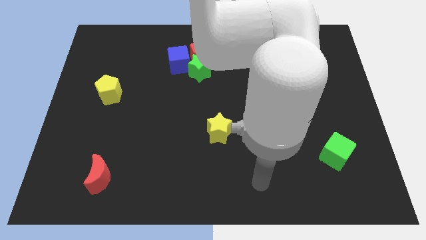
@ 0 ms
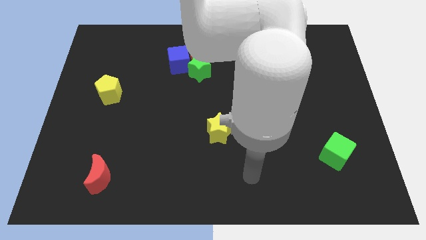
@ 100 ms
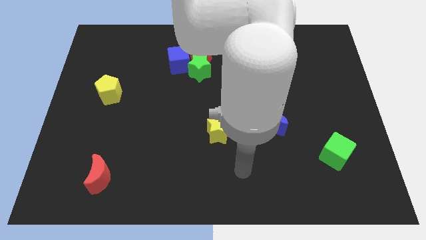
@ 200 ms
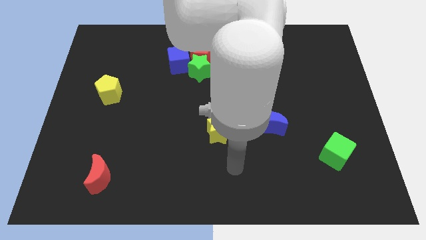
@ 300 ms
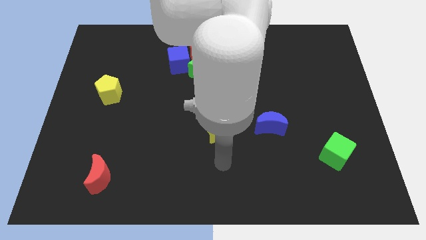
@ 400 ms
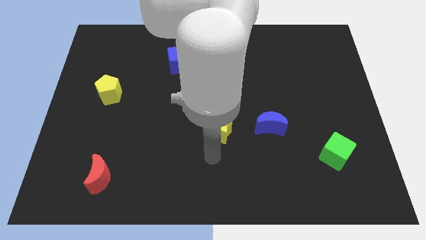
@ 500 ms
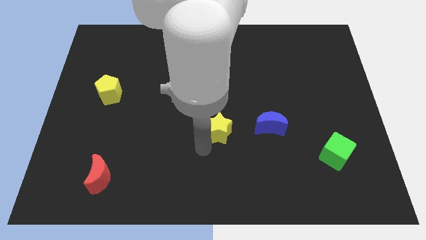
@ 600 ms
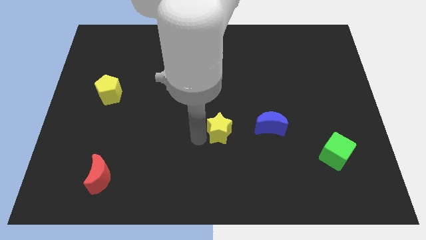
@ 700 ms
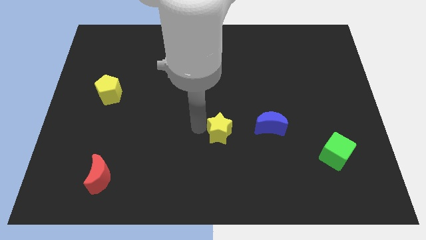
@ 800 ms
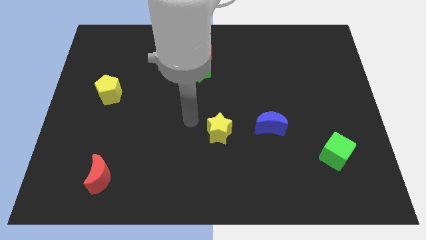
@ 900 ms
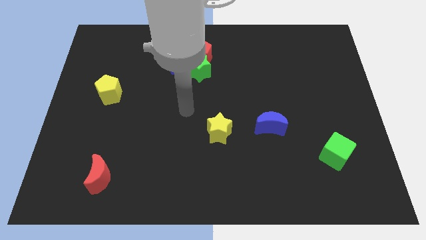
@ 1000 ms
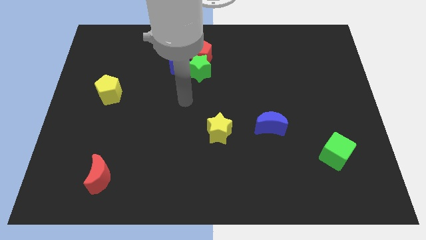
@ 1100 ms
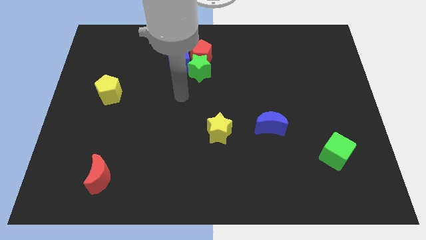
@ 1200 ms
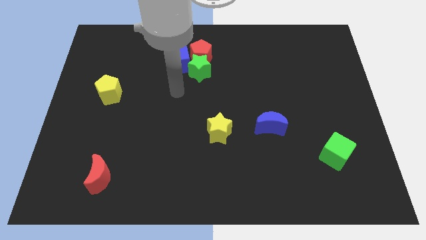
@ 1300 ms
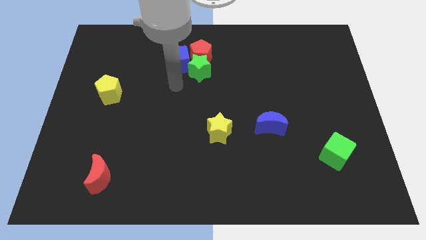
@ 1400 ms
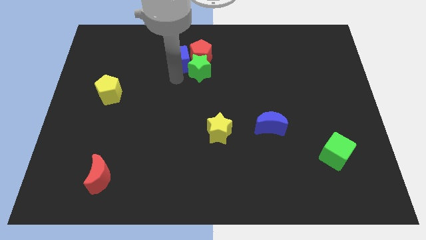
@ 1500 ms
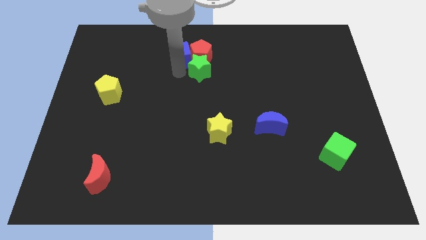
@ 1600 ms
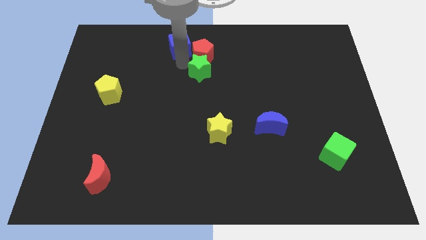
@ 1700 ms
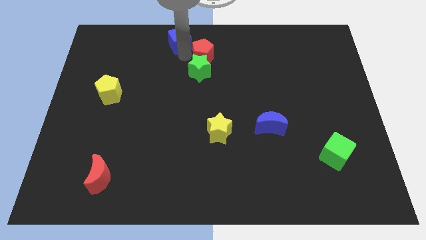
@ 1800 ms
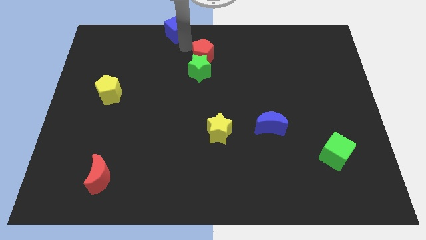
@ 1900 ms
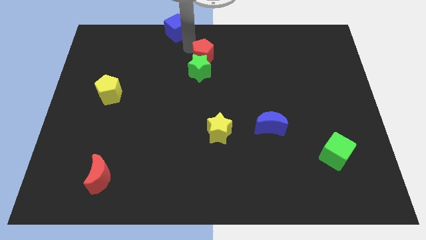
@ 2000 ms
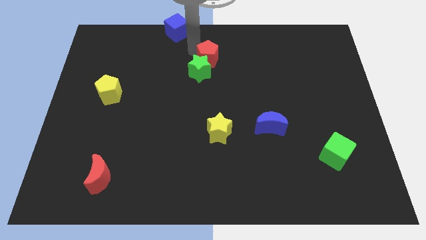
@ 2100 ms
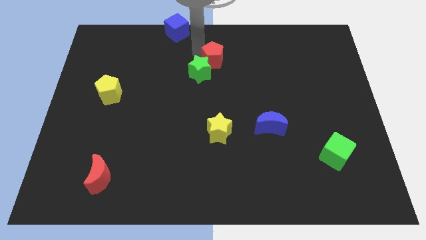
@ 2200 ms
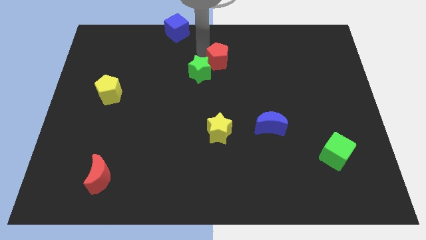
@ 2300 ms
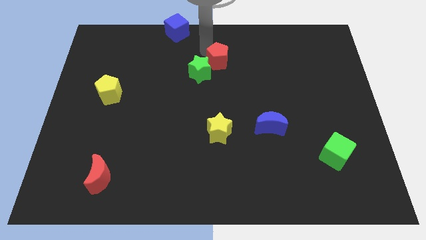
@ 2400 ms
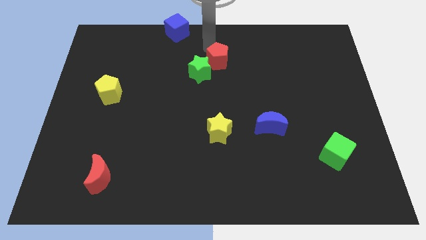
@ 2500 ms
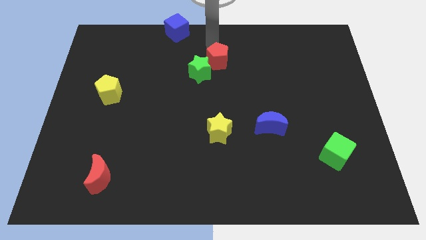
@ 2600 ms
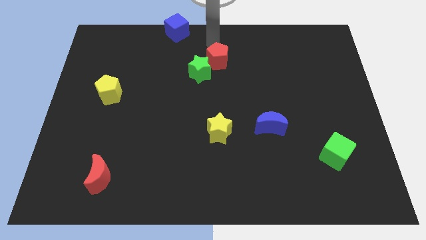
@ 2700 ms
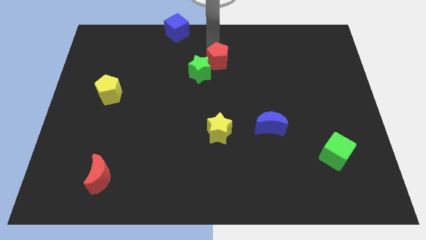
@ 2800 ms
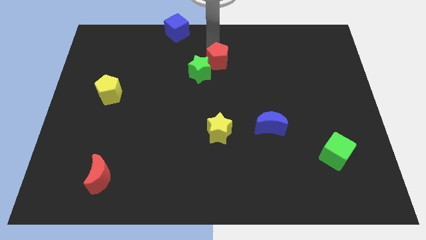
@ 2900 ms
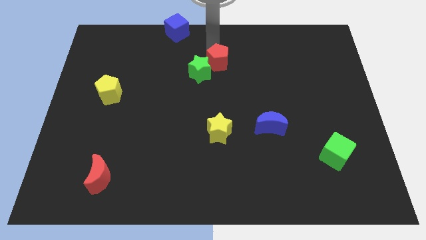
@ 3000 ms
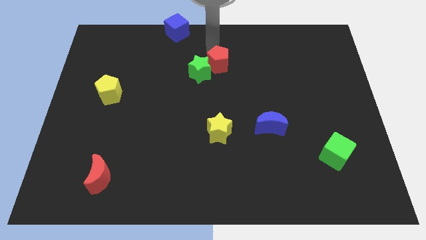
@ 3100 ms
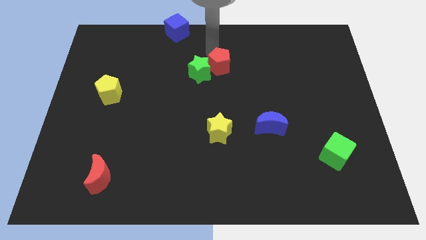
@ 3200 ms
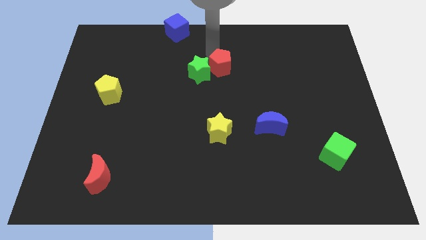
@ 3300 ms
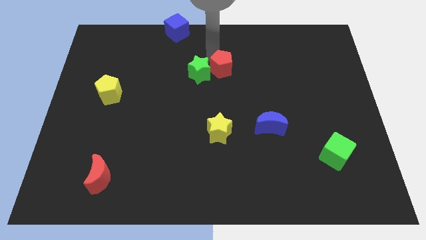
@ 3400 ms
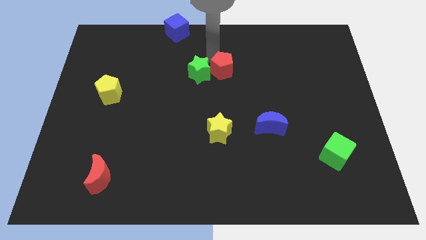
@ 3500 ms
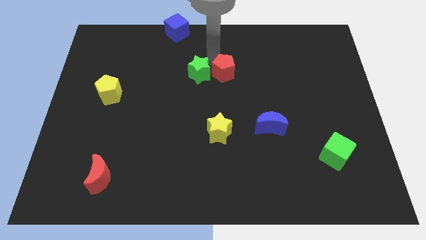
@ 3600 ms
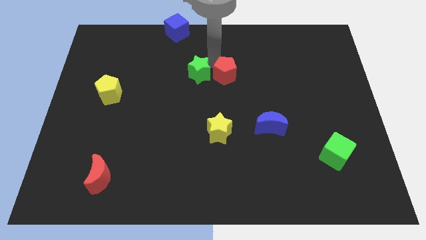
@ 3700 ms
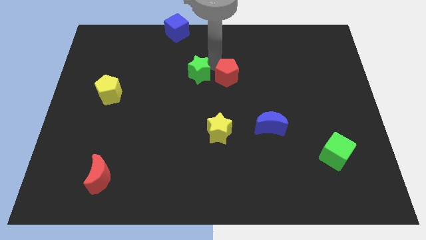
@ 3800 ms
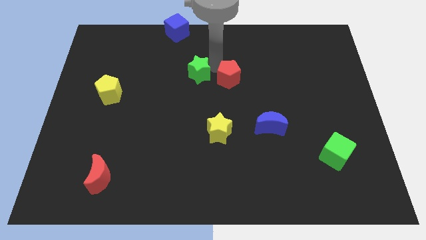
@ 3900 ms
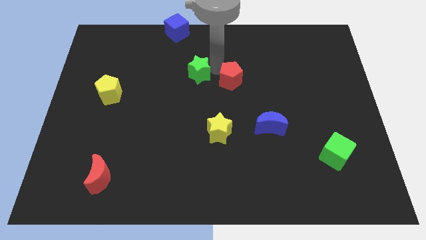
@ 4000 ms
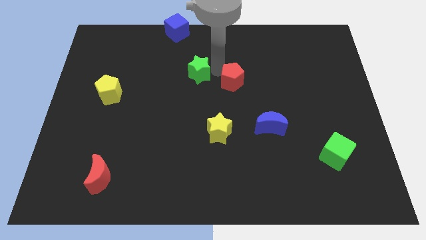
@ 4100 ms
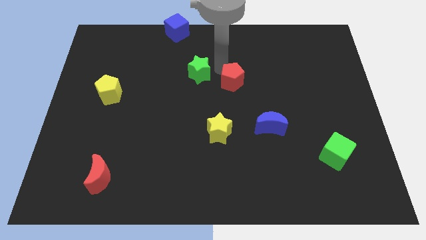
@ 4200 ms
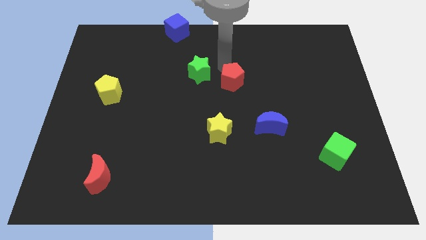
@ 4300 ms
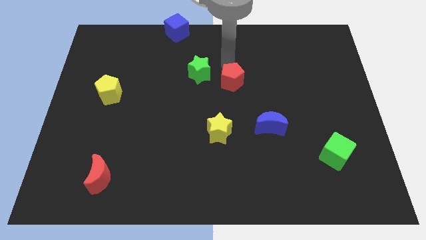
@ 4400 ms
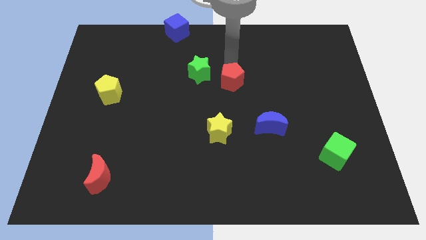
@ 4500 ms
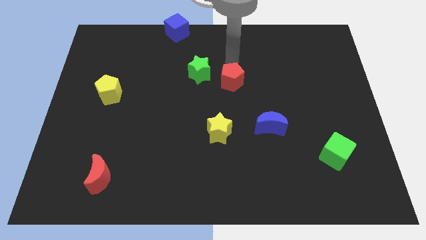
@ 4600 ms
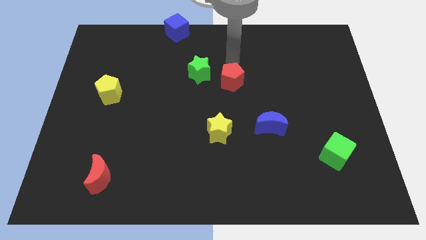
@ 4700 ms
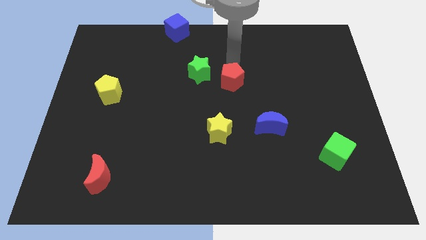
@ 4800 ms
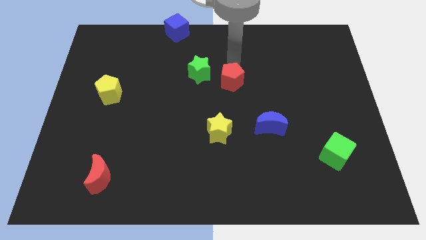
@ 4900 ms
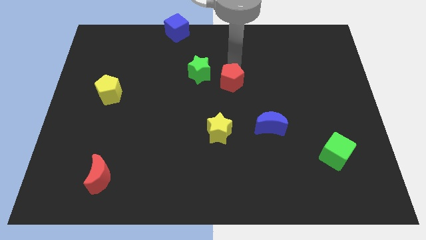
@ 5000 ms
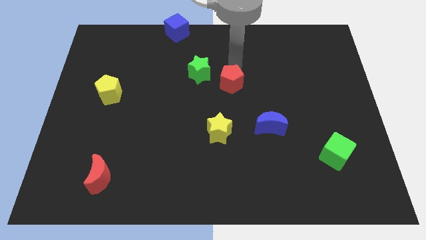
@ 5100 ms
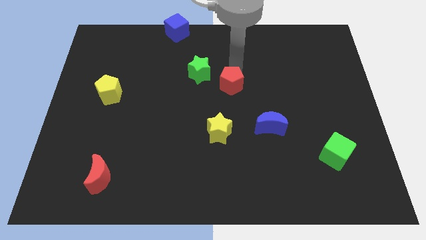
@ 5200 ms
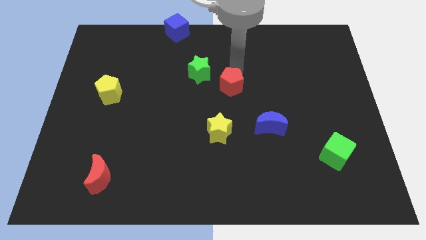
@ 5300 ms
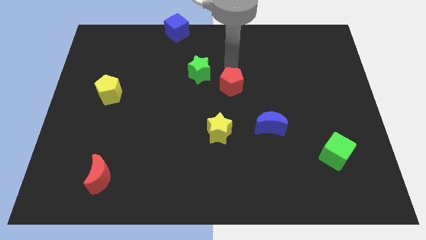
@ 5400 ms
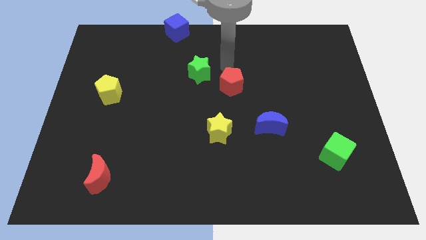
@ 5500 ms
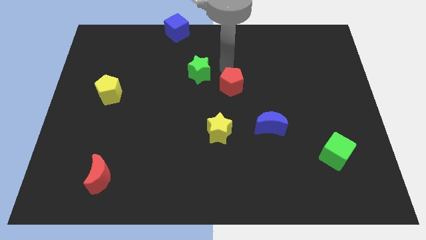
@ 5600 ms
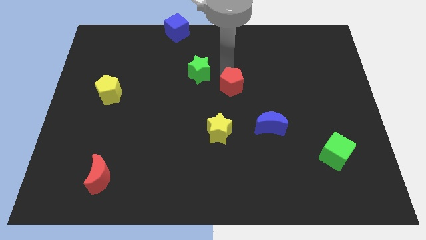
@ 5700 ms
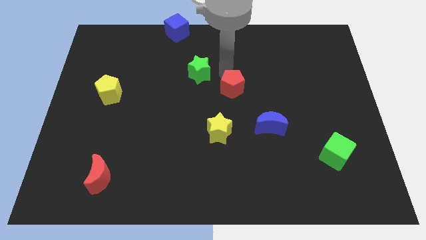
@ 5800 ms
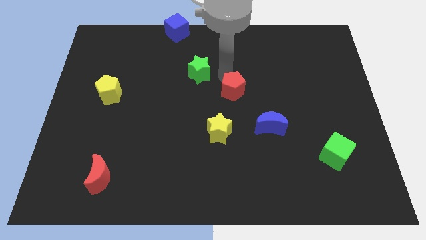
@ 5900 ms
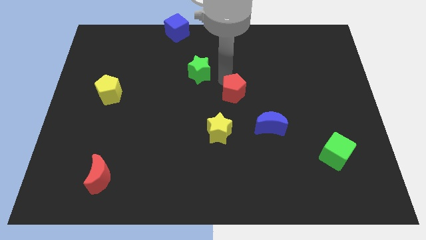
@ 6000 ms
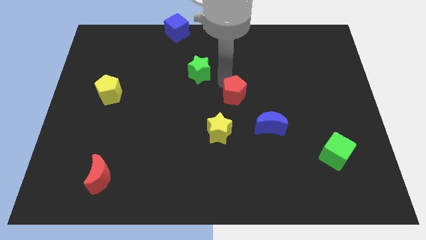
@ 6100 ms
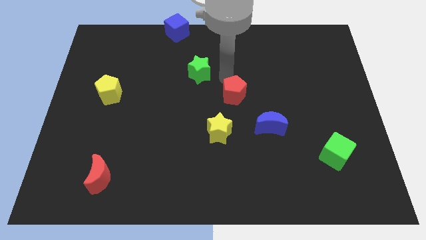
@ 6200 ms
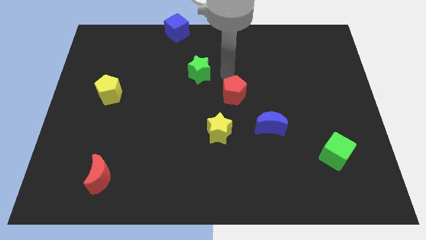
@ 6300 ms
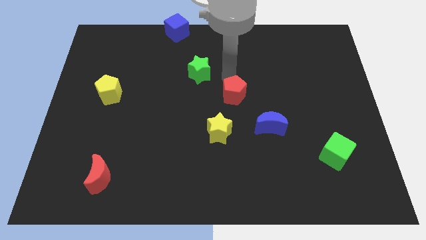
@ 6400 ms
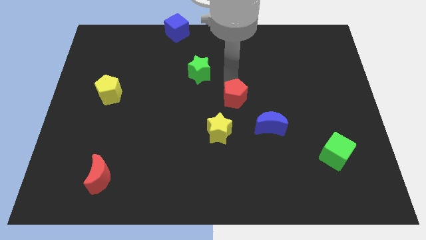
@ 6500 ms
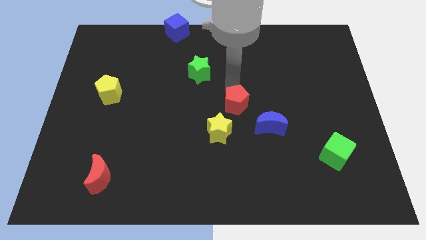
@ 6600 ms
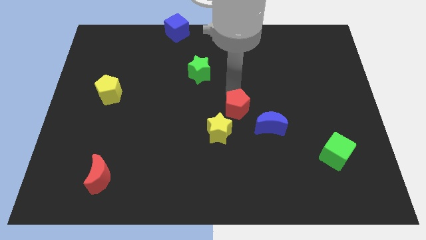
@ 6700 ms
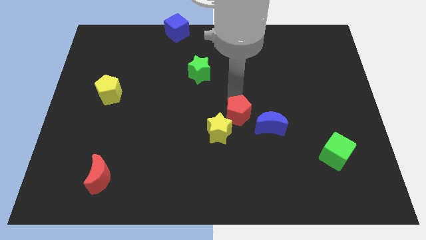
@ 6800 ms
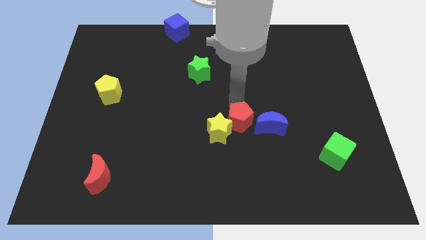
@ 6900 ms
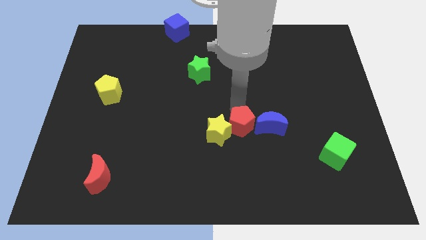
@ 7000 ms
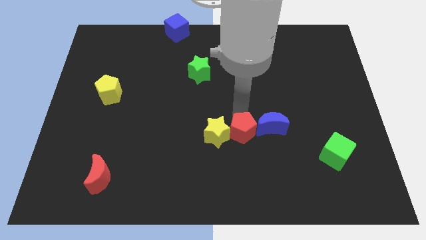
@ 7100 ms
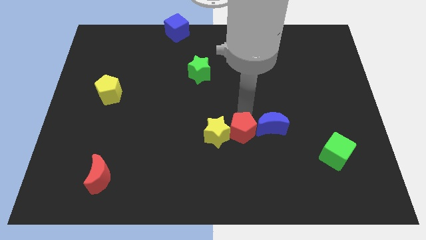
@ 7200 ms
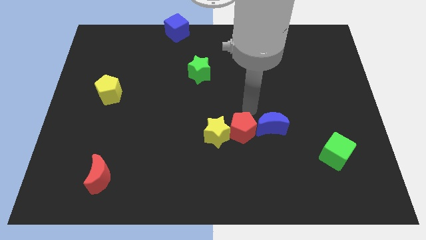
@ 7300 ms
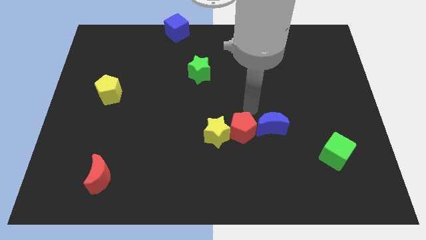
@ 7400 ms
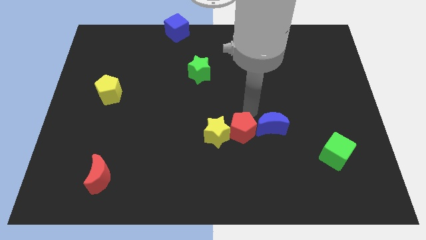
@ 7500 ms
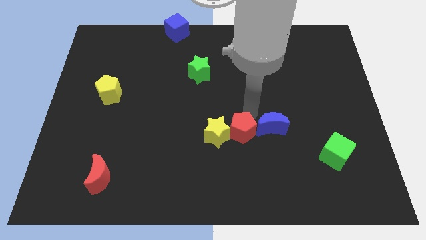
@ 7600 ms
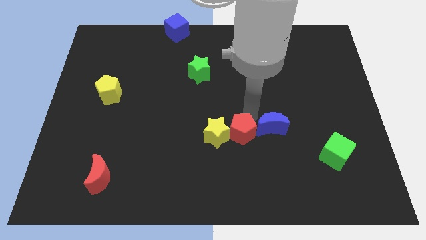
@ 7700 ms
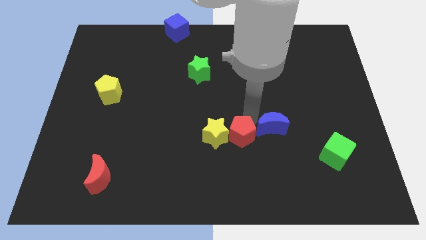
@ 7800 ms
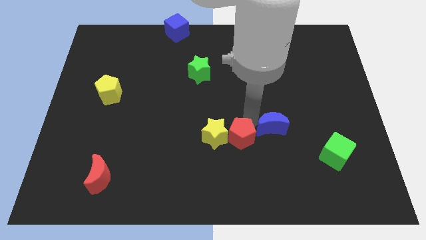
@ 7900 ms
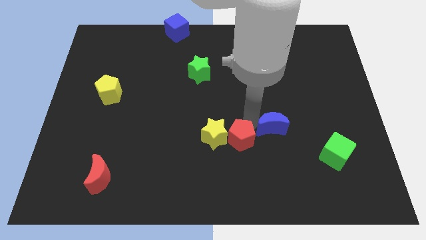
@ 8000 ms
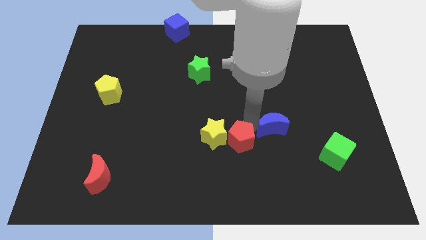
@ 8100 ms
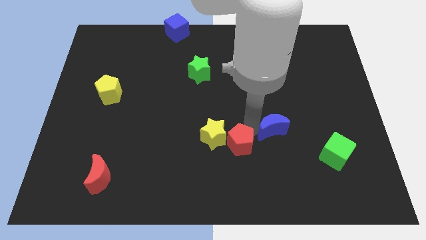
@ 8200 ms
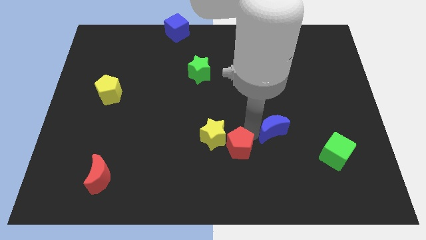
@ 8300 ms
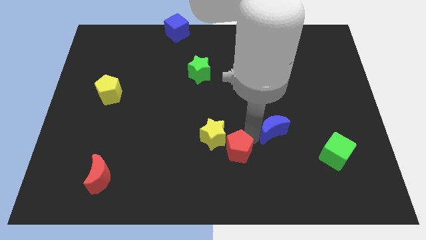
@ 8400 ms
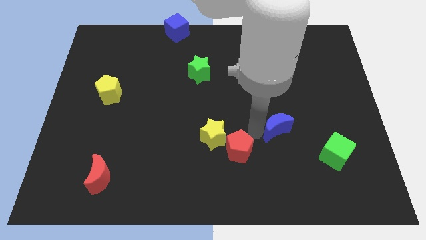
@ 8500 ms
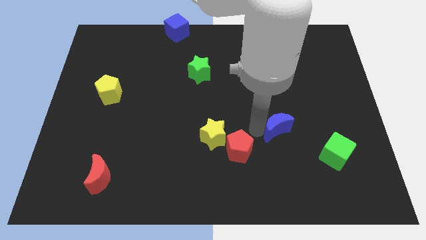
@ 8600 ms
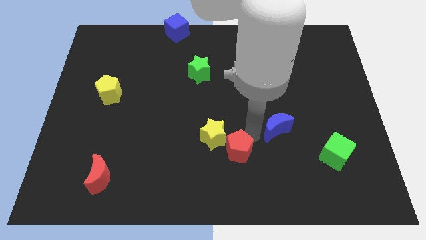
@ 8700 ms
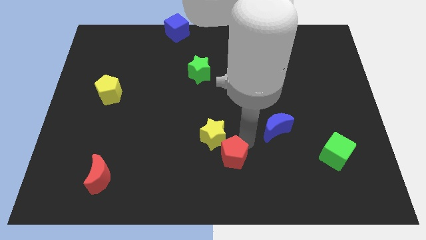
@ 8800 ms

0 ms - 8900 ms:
put the red pentagon below the yellow star
